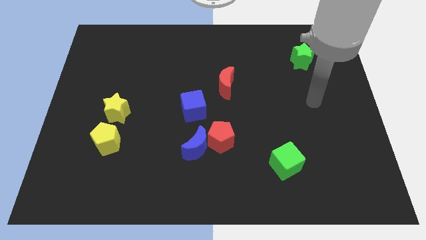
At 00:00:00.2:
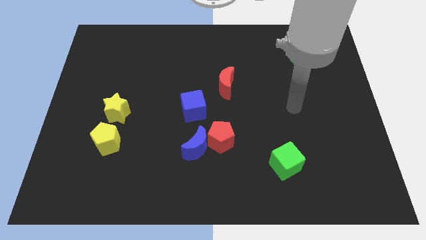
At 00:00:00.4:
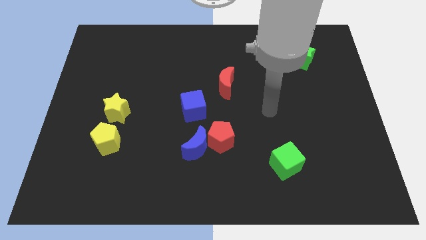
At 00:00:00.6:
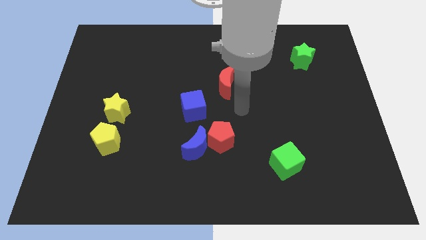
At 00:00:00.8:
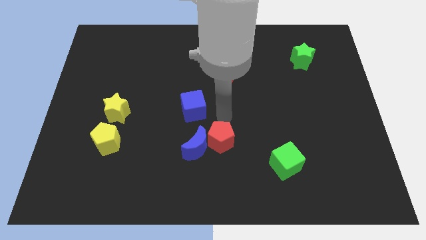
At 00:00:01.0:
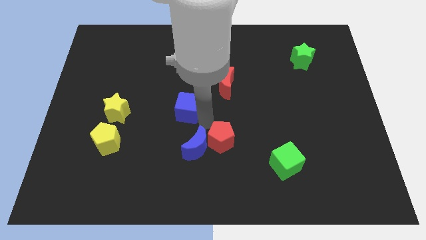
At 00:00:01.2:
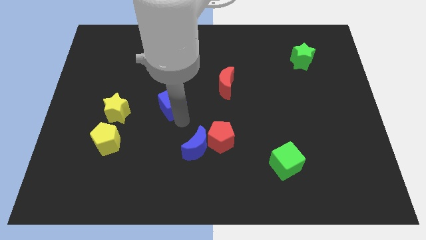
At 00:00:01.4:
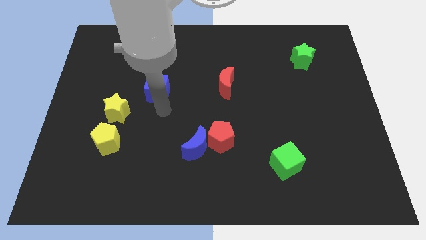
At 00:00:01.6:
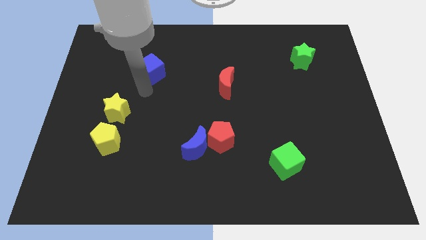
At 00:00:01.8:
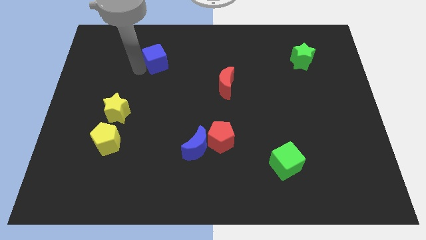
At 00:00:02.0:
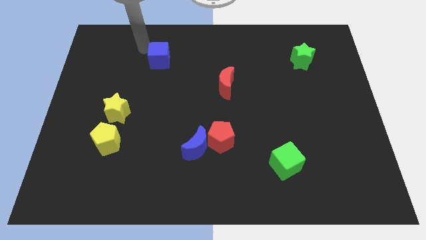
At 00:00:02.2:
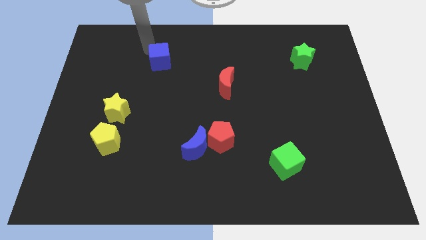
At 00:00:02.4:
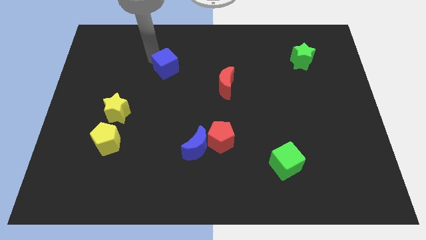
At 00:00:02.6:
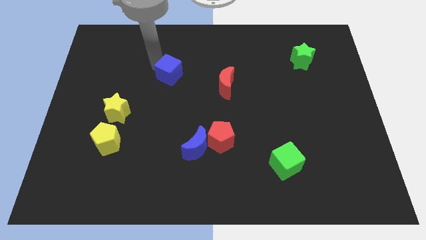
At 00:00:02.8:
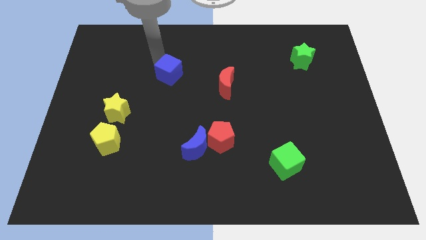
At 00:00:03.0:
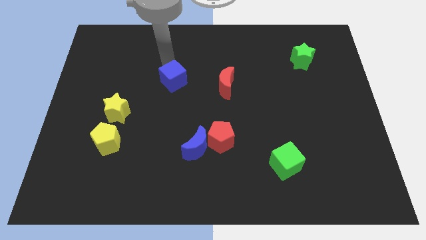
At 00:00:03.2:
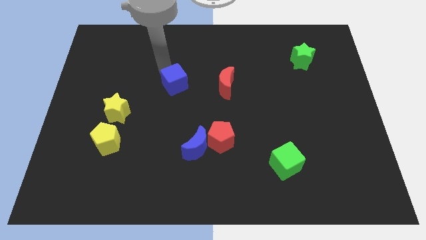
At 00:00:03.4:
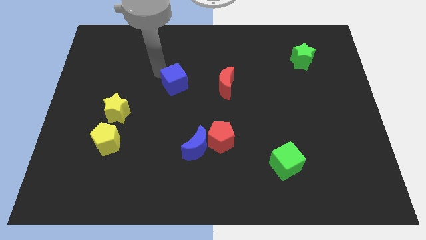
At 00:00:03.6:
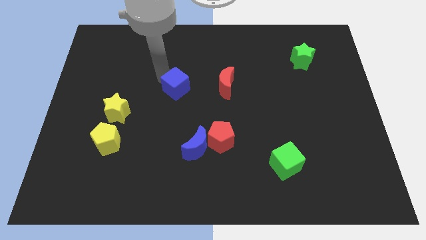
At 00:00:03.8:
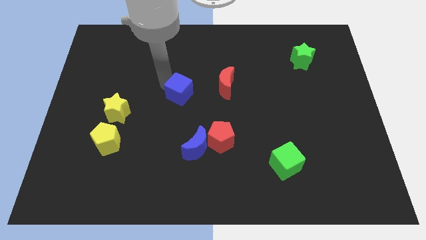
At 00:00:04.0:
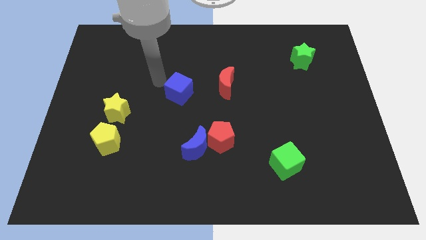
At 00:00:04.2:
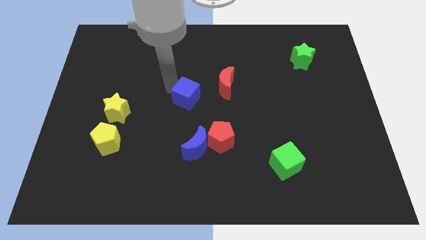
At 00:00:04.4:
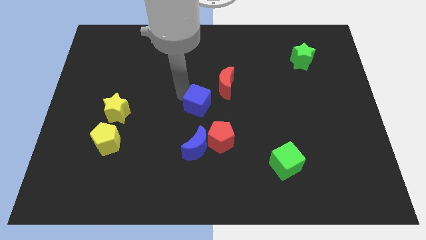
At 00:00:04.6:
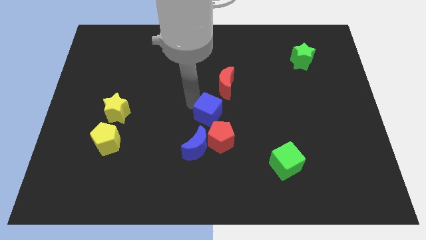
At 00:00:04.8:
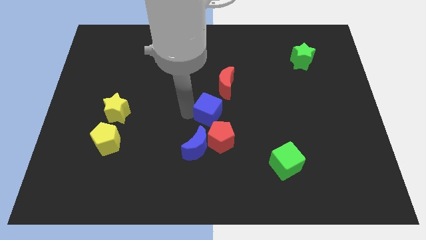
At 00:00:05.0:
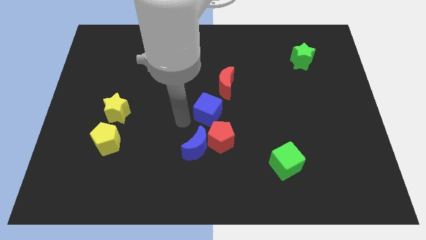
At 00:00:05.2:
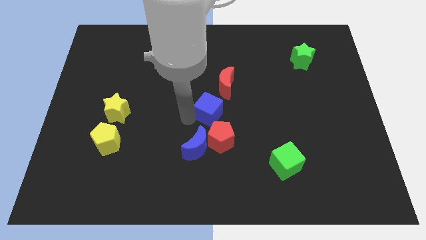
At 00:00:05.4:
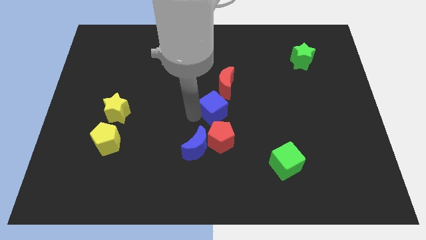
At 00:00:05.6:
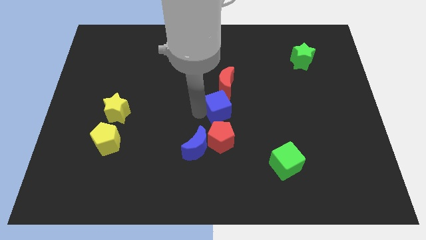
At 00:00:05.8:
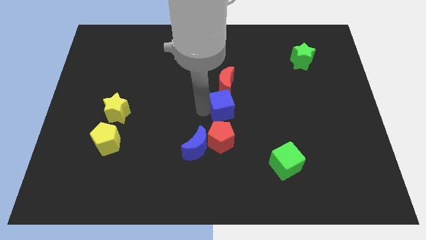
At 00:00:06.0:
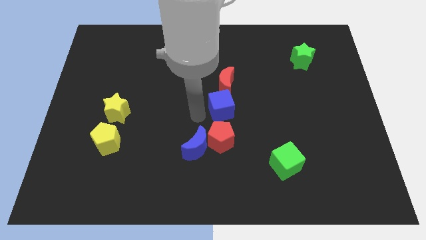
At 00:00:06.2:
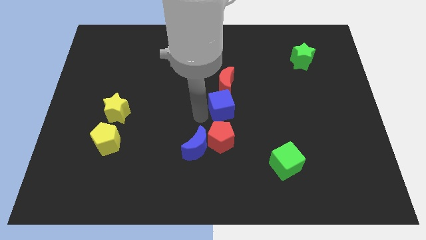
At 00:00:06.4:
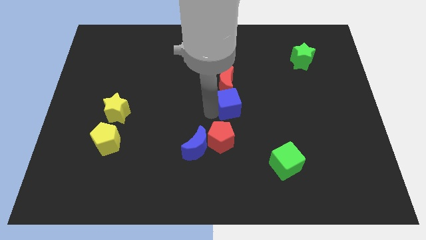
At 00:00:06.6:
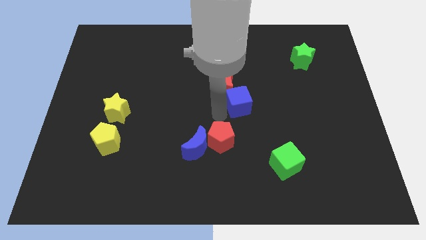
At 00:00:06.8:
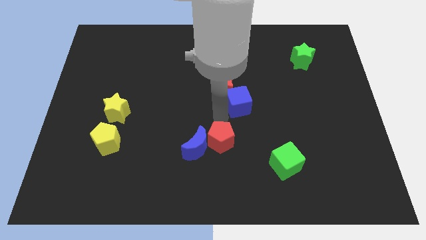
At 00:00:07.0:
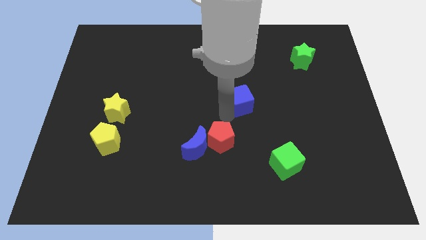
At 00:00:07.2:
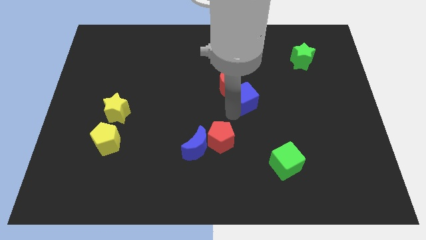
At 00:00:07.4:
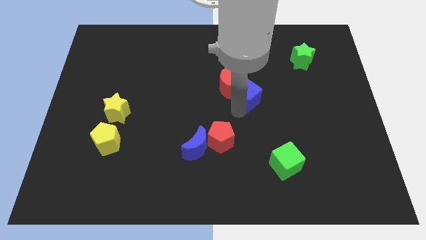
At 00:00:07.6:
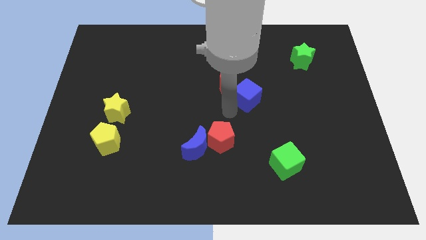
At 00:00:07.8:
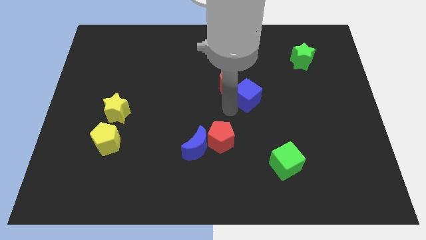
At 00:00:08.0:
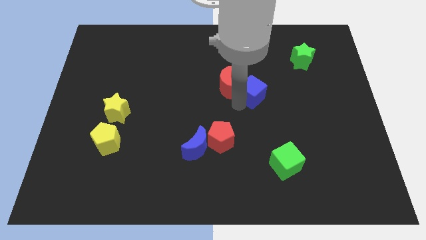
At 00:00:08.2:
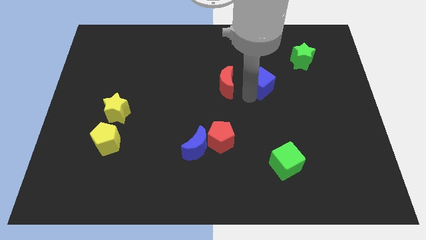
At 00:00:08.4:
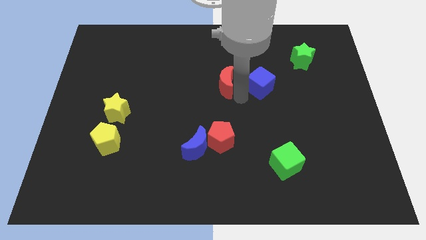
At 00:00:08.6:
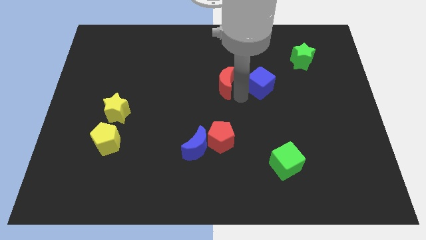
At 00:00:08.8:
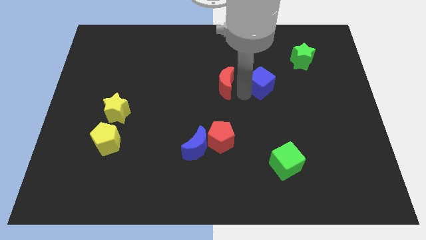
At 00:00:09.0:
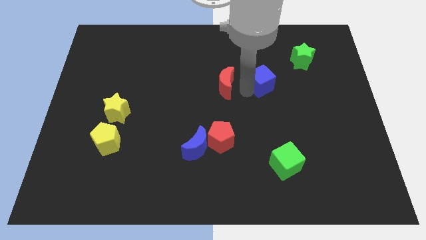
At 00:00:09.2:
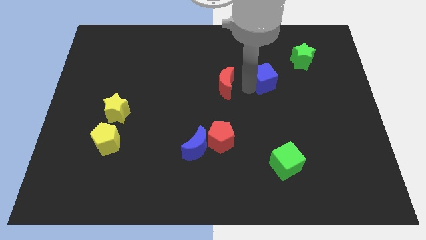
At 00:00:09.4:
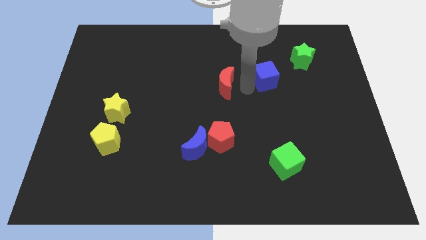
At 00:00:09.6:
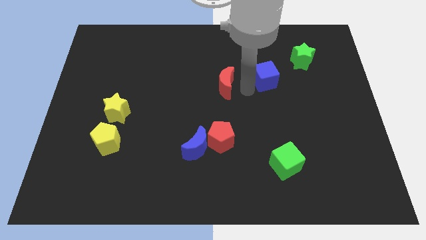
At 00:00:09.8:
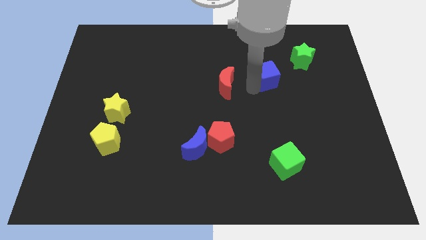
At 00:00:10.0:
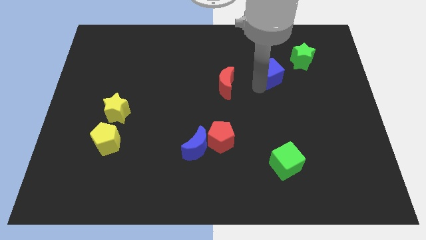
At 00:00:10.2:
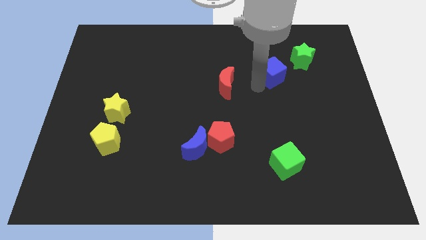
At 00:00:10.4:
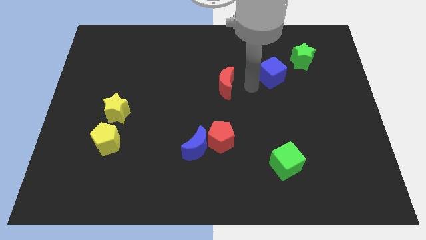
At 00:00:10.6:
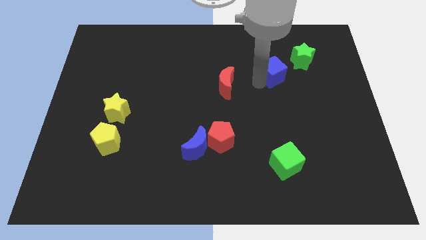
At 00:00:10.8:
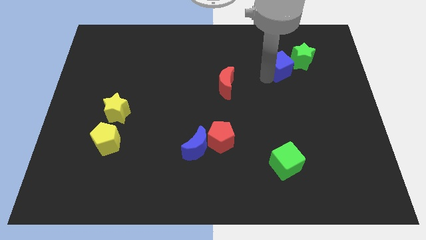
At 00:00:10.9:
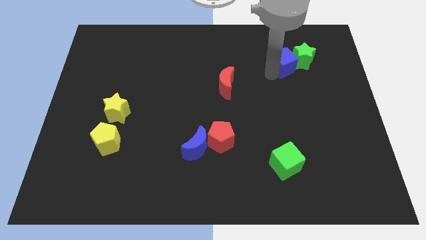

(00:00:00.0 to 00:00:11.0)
slide the blue cube to the green star

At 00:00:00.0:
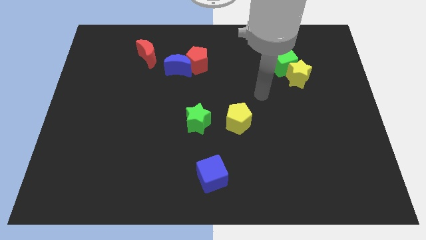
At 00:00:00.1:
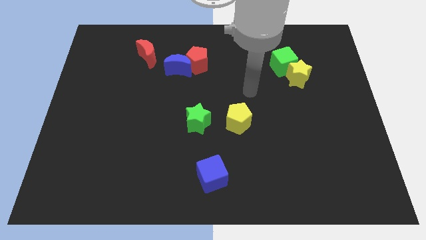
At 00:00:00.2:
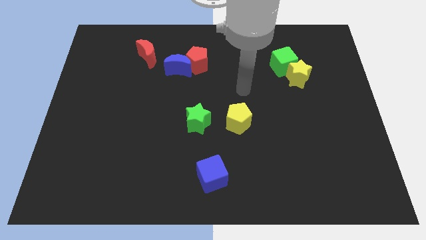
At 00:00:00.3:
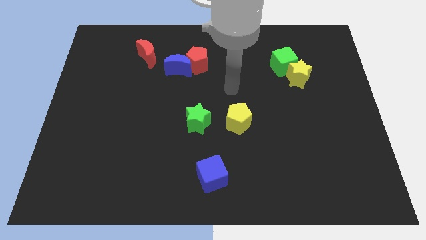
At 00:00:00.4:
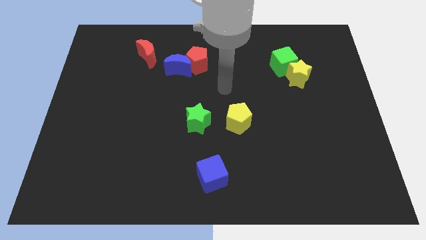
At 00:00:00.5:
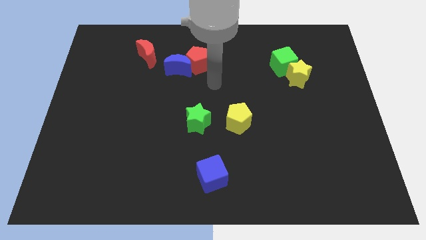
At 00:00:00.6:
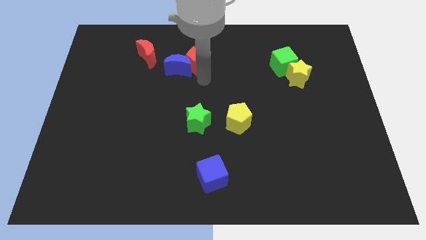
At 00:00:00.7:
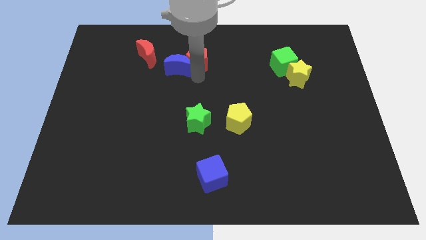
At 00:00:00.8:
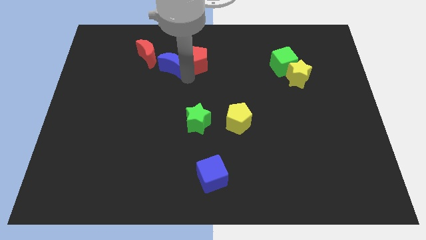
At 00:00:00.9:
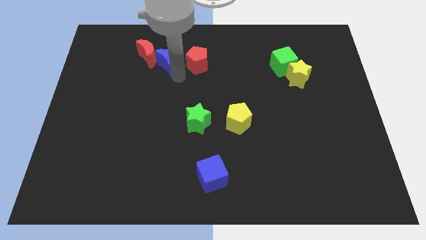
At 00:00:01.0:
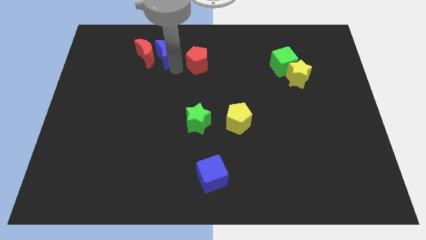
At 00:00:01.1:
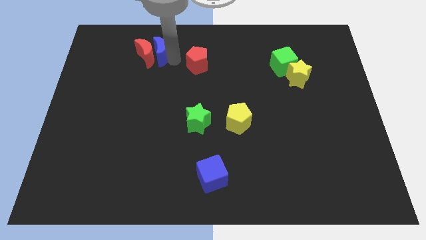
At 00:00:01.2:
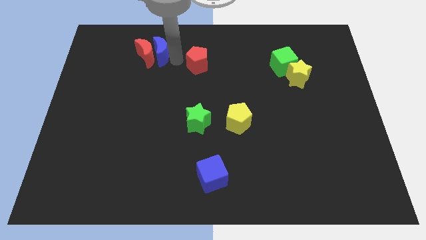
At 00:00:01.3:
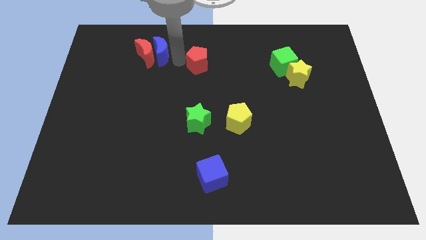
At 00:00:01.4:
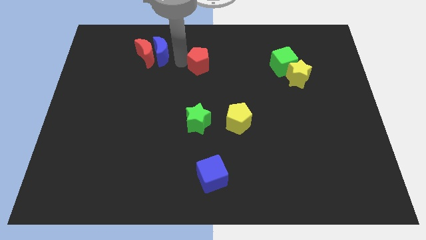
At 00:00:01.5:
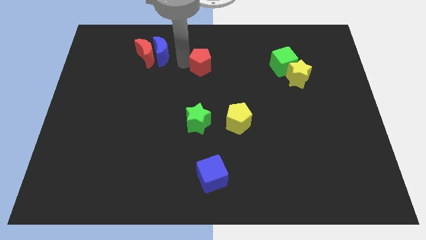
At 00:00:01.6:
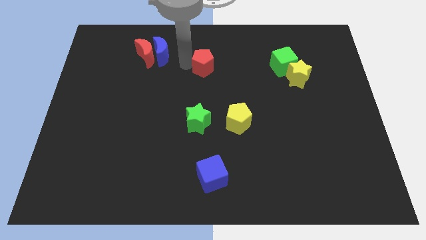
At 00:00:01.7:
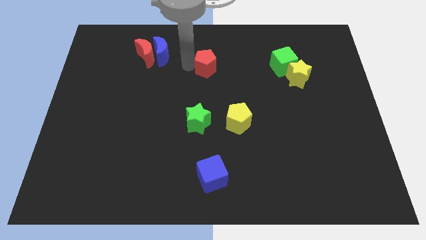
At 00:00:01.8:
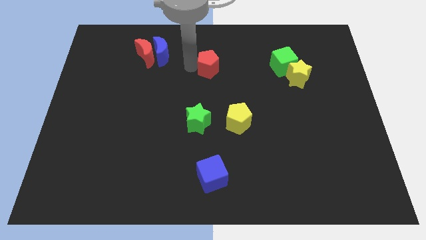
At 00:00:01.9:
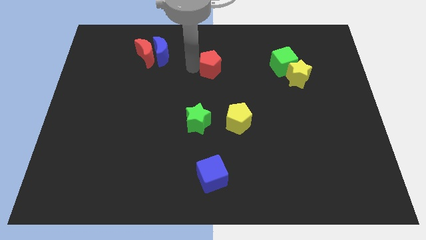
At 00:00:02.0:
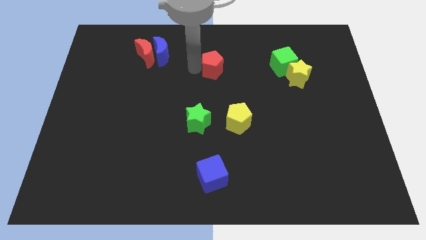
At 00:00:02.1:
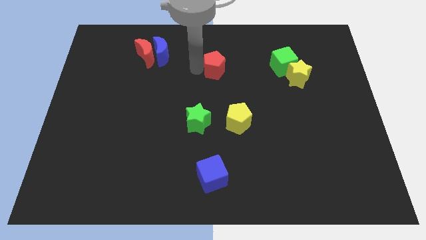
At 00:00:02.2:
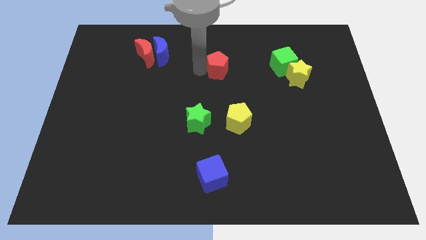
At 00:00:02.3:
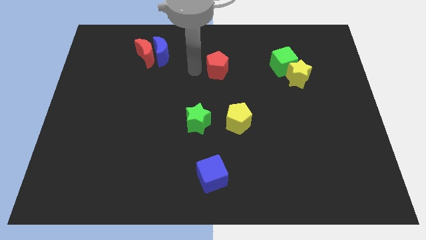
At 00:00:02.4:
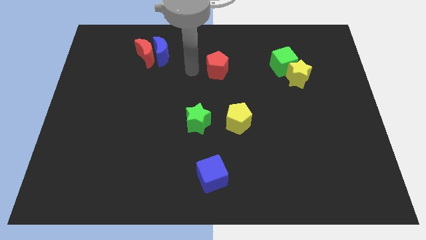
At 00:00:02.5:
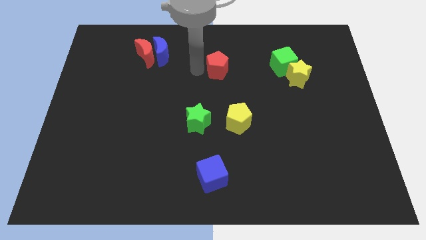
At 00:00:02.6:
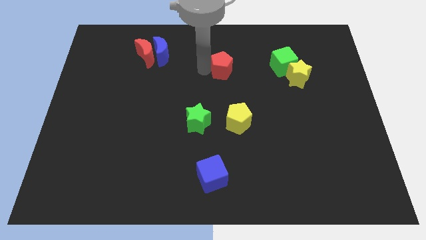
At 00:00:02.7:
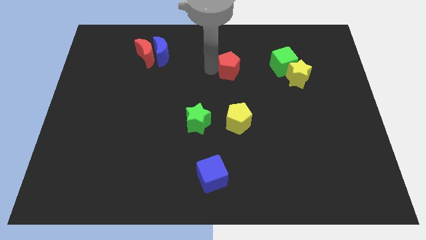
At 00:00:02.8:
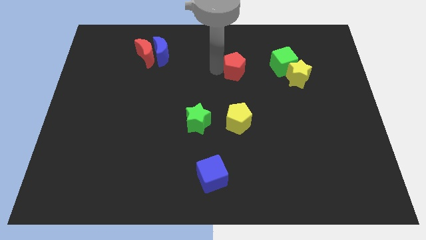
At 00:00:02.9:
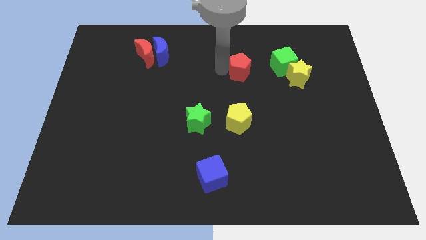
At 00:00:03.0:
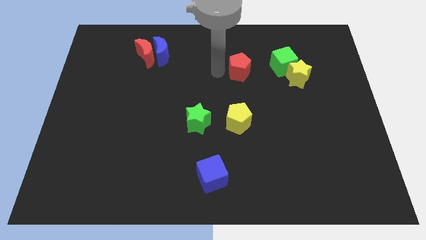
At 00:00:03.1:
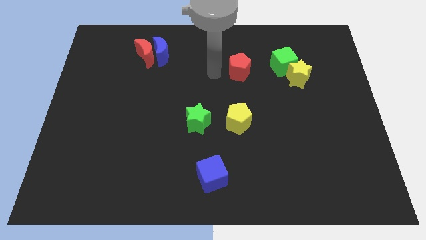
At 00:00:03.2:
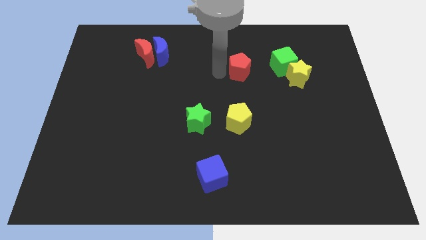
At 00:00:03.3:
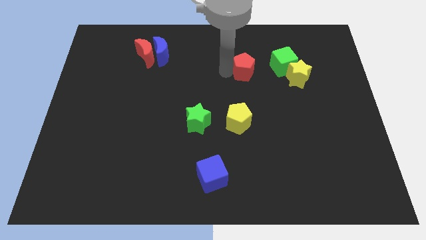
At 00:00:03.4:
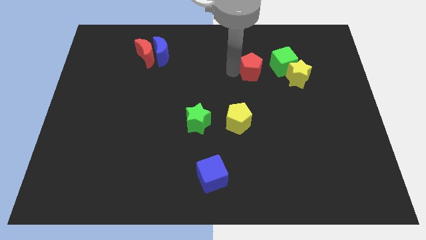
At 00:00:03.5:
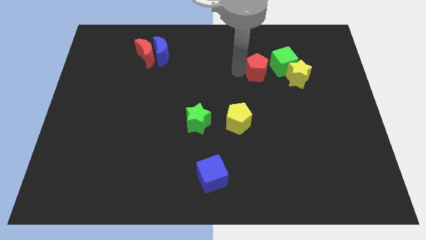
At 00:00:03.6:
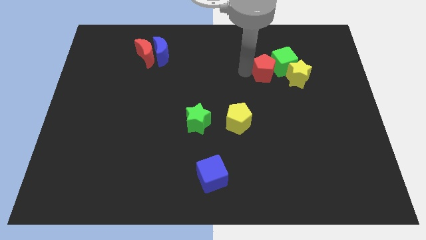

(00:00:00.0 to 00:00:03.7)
put the red pentagon to the green cube
